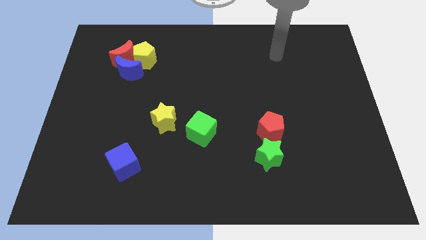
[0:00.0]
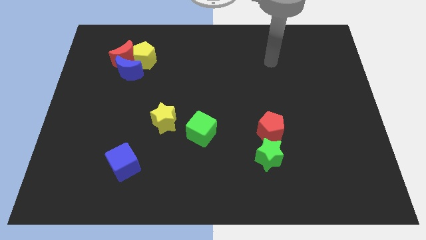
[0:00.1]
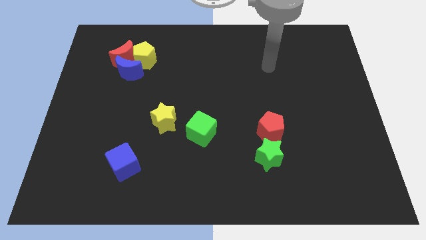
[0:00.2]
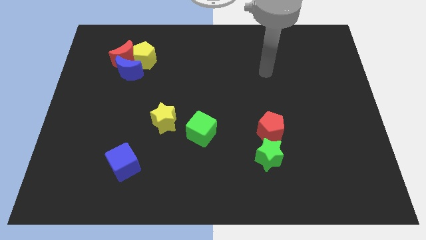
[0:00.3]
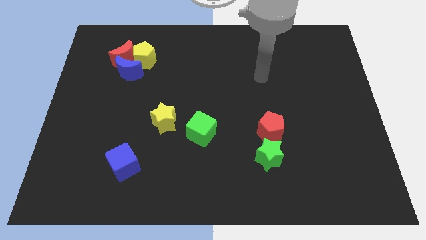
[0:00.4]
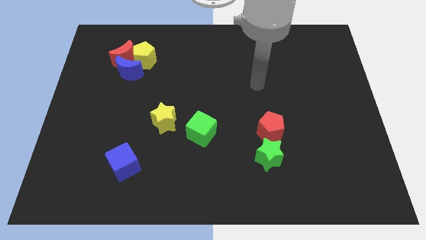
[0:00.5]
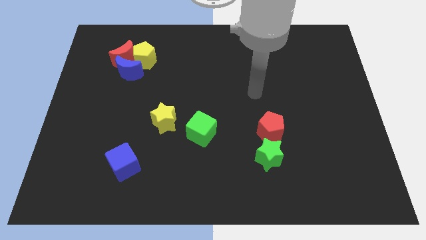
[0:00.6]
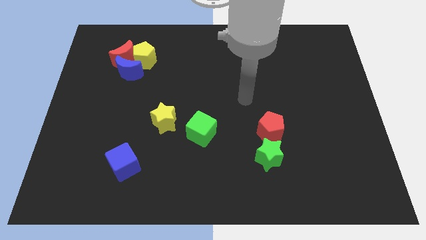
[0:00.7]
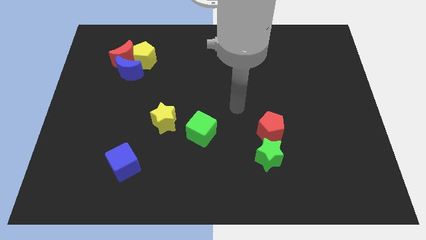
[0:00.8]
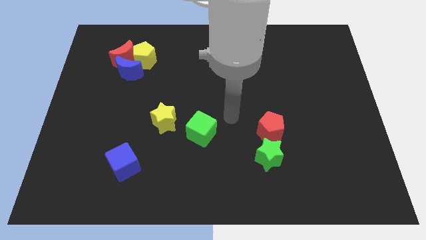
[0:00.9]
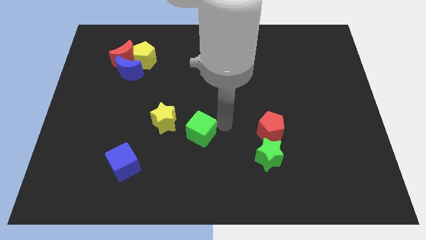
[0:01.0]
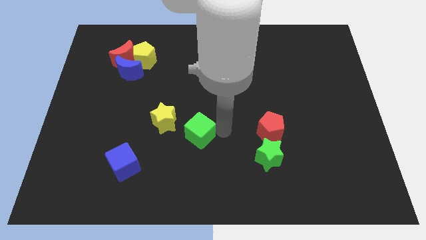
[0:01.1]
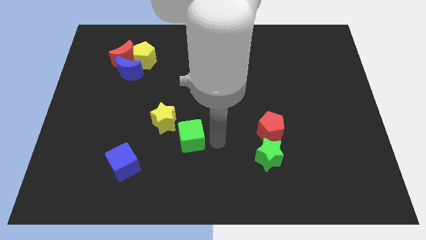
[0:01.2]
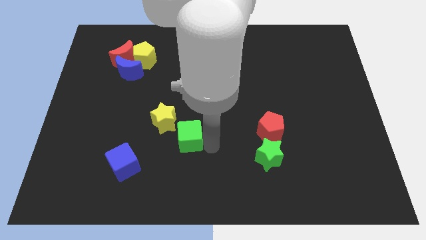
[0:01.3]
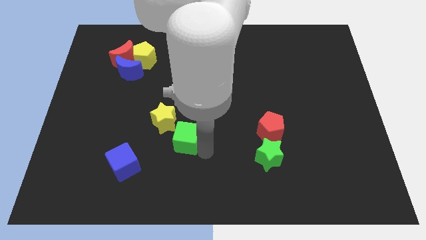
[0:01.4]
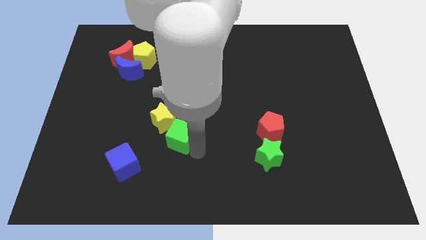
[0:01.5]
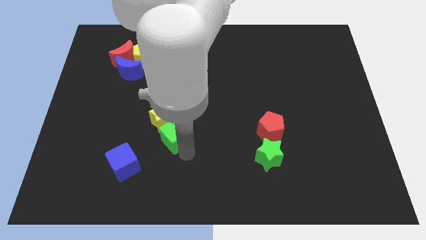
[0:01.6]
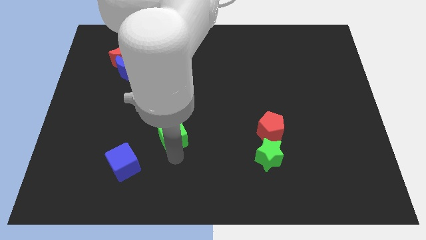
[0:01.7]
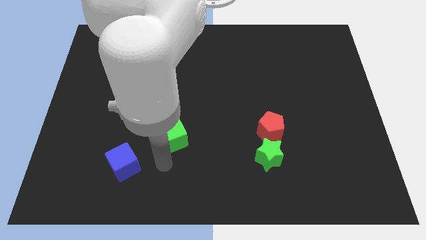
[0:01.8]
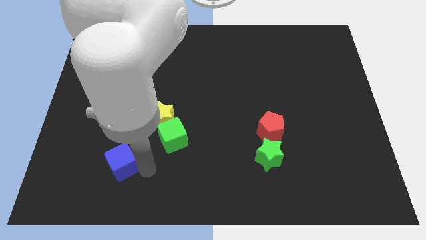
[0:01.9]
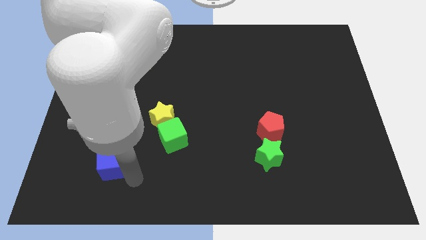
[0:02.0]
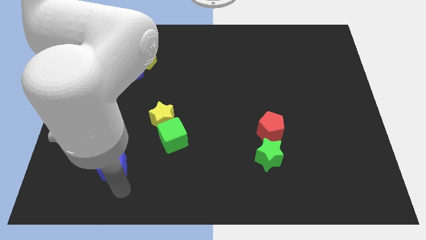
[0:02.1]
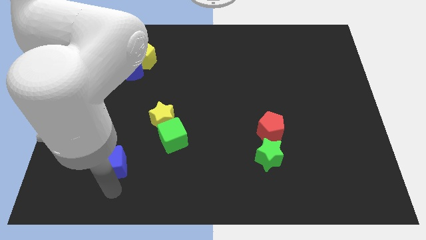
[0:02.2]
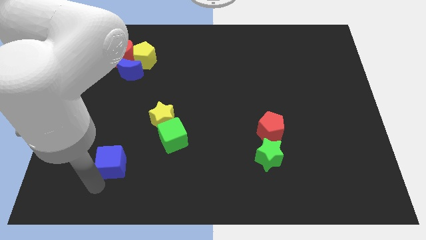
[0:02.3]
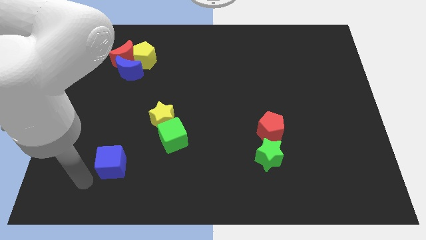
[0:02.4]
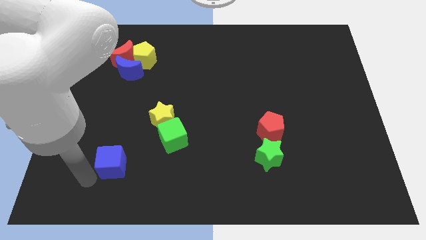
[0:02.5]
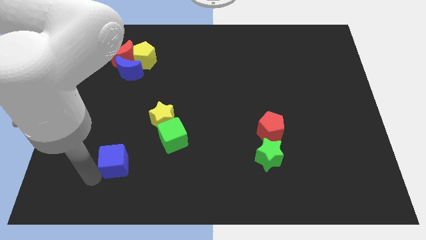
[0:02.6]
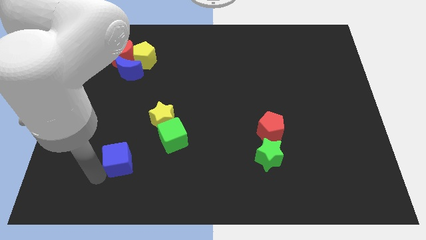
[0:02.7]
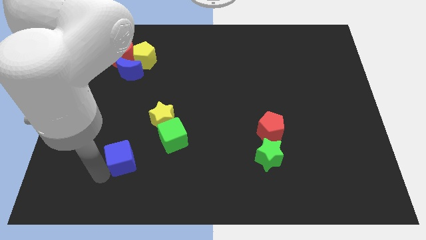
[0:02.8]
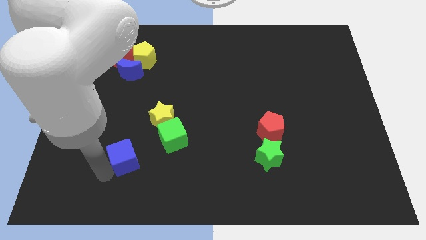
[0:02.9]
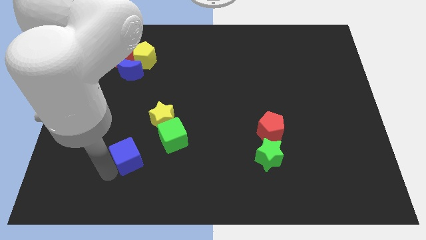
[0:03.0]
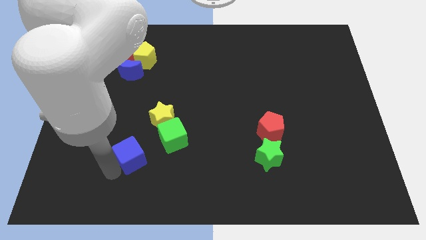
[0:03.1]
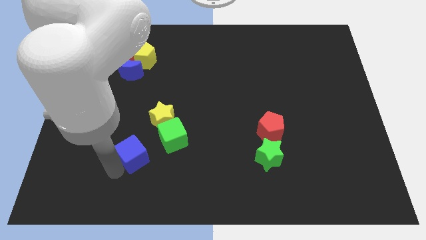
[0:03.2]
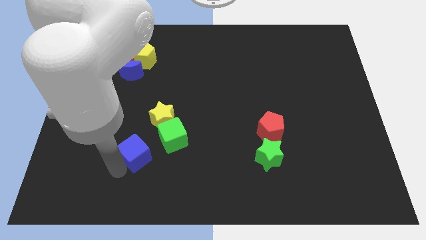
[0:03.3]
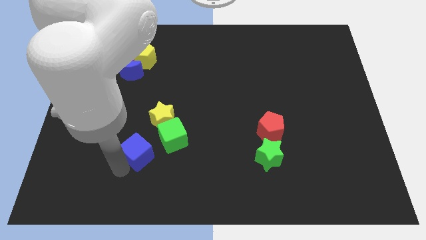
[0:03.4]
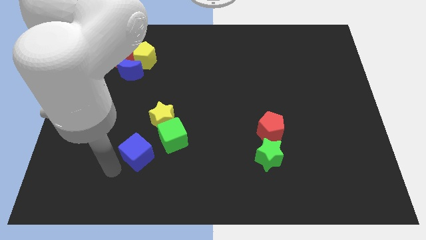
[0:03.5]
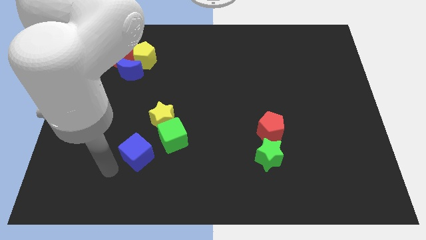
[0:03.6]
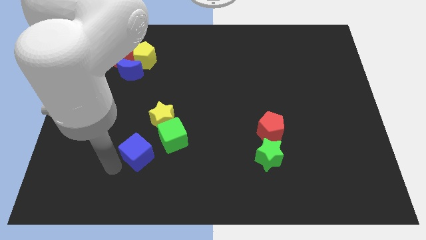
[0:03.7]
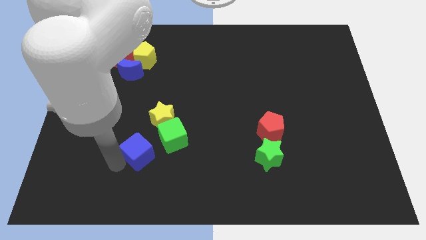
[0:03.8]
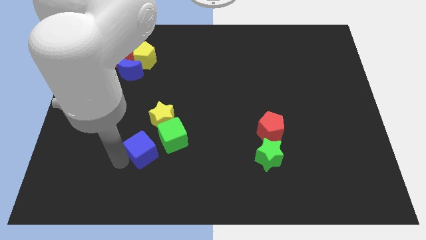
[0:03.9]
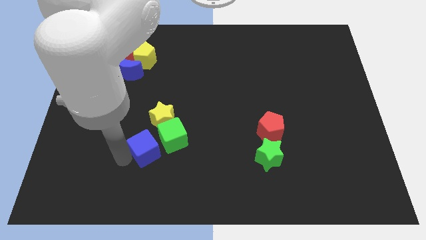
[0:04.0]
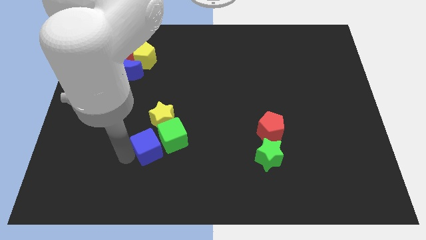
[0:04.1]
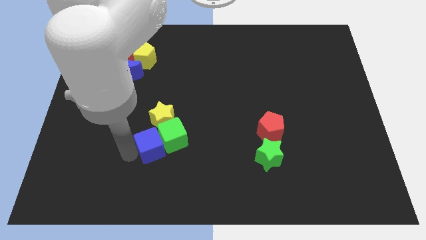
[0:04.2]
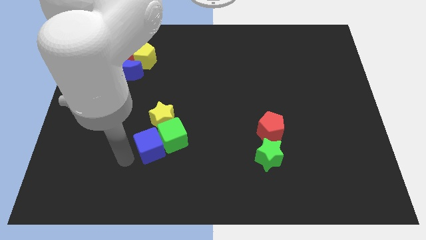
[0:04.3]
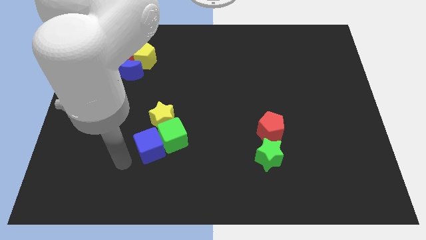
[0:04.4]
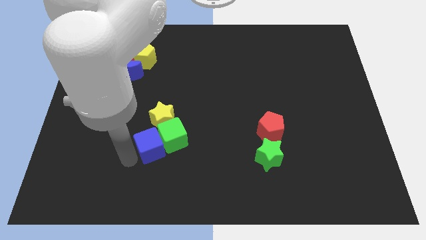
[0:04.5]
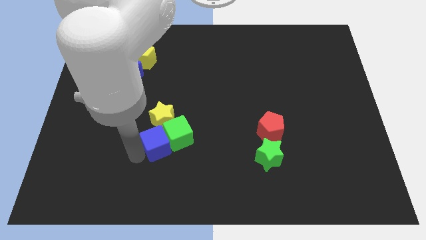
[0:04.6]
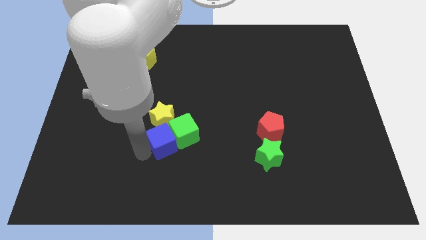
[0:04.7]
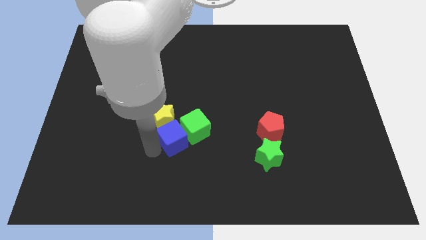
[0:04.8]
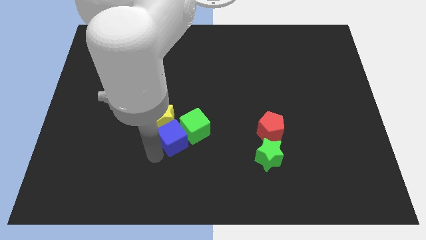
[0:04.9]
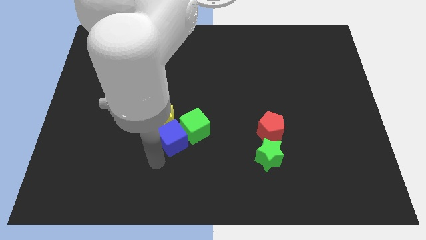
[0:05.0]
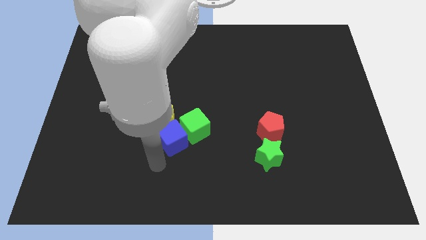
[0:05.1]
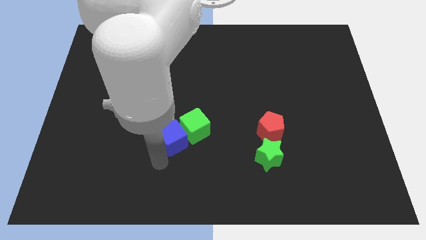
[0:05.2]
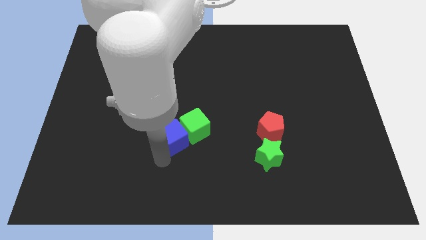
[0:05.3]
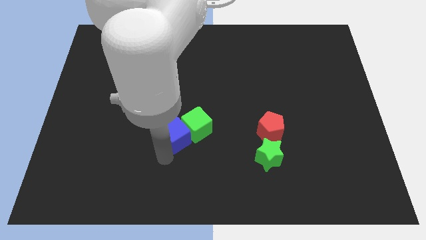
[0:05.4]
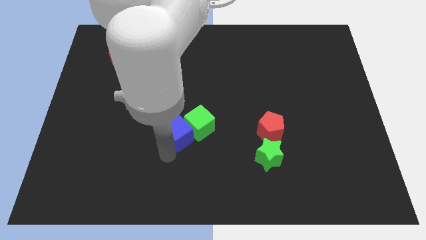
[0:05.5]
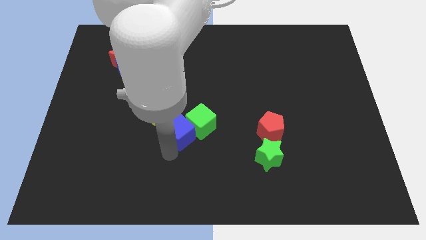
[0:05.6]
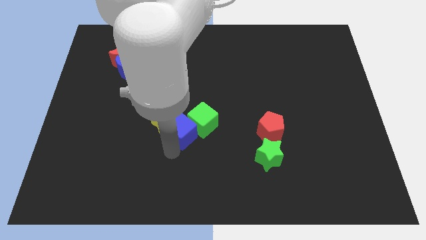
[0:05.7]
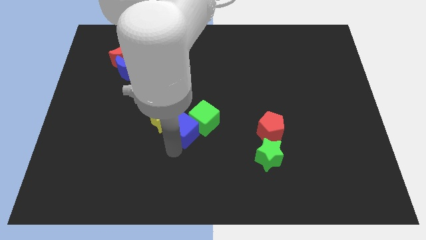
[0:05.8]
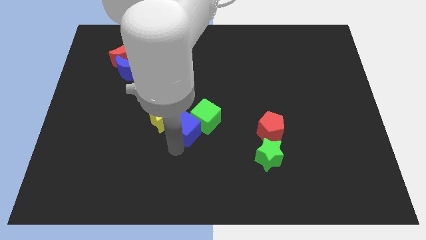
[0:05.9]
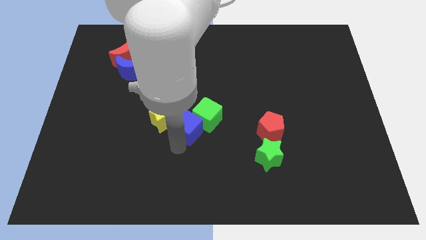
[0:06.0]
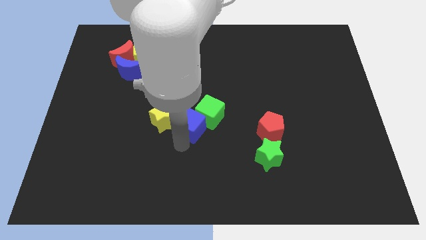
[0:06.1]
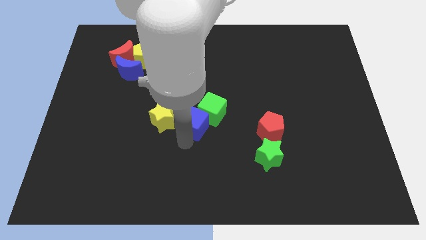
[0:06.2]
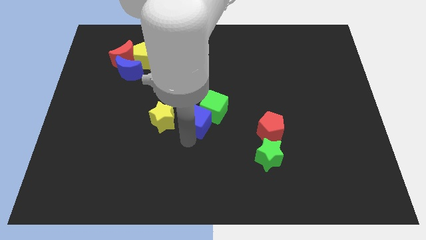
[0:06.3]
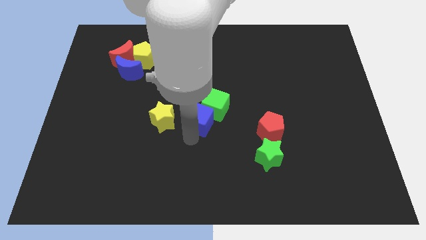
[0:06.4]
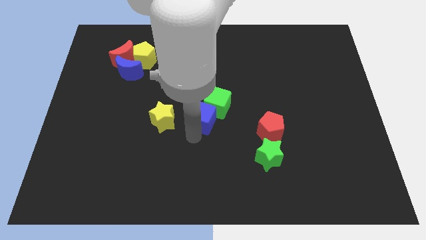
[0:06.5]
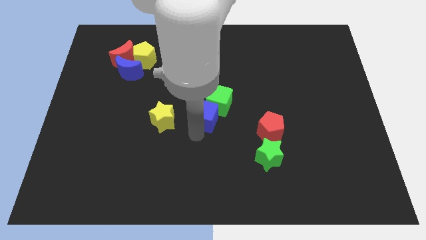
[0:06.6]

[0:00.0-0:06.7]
move the blue cube up and to the right diagonally

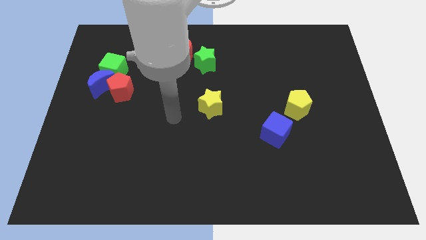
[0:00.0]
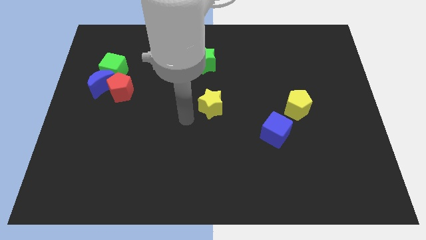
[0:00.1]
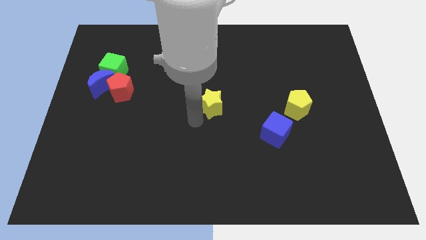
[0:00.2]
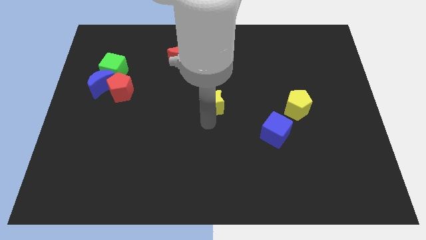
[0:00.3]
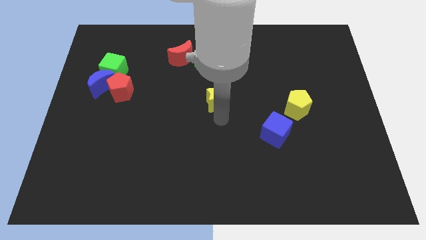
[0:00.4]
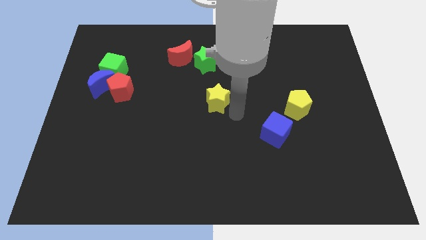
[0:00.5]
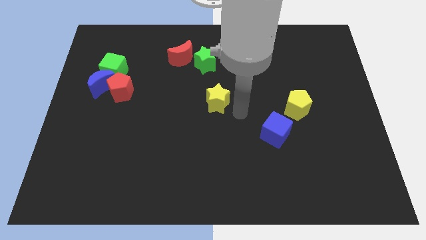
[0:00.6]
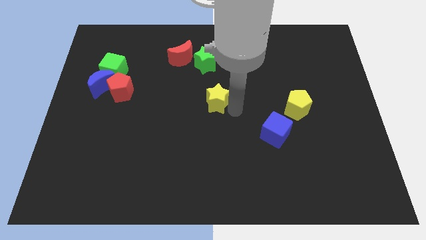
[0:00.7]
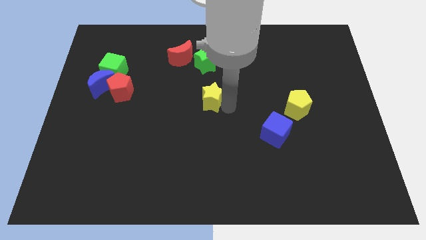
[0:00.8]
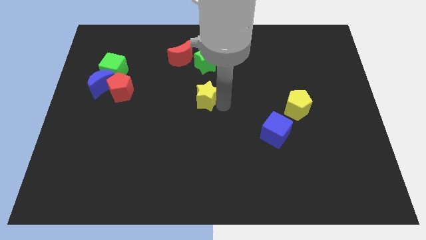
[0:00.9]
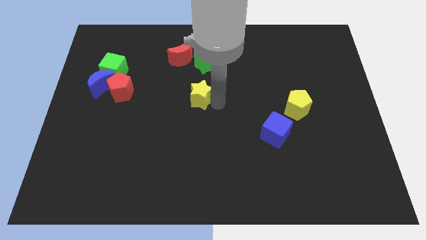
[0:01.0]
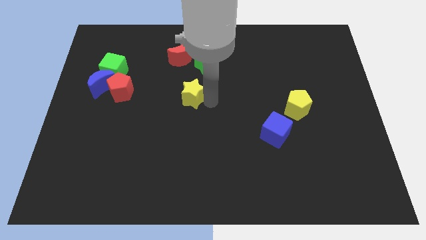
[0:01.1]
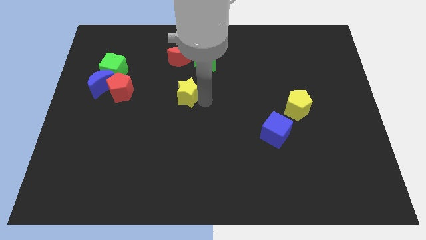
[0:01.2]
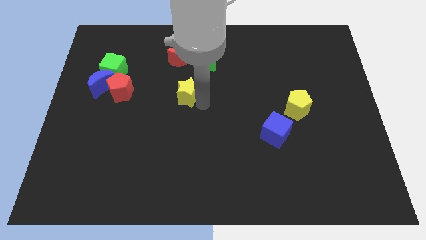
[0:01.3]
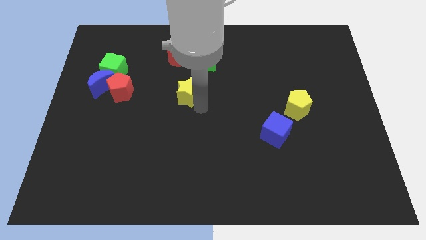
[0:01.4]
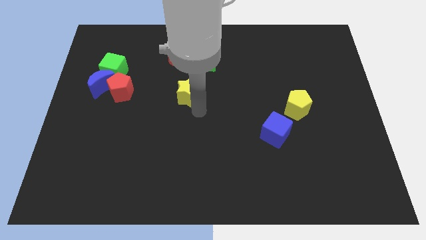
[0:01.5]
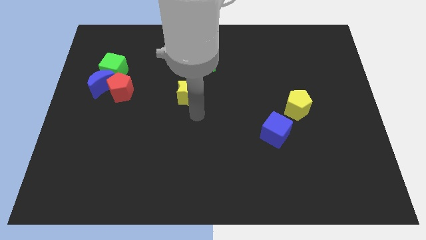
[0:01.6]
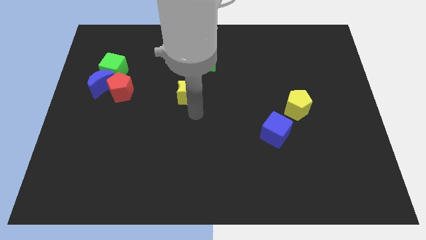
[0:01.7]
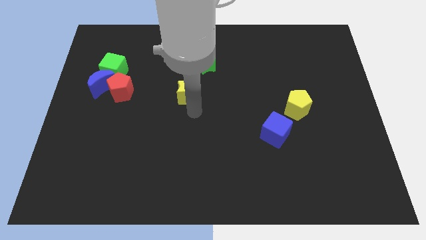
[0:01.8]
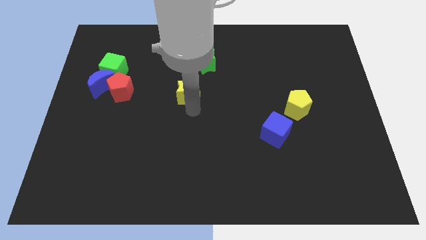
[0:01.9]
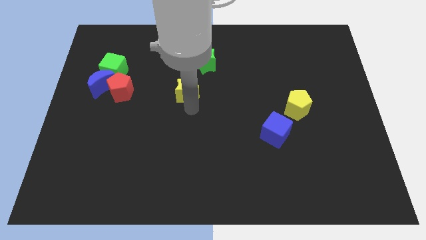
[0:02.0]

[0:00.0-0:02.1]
move the yellow star up and to the left somewhat
